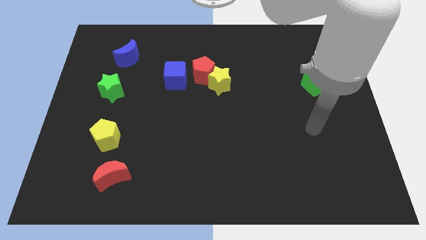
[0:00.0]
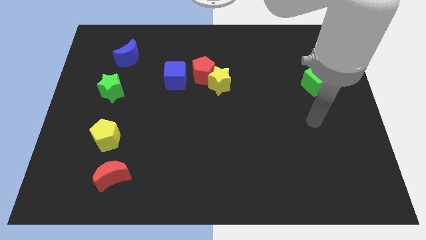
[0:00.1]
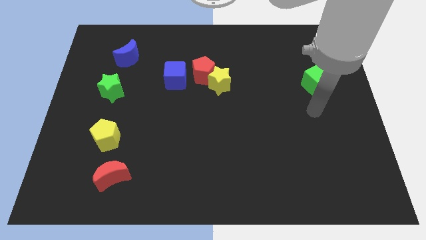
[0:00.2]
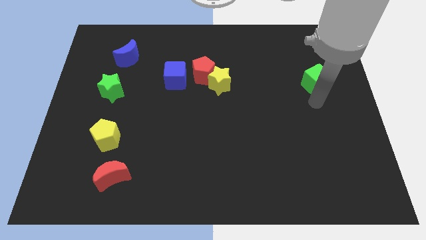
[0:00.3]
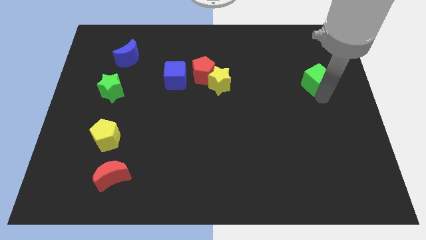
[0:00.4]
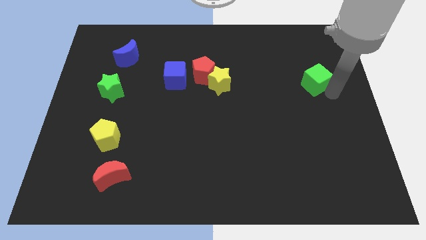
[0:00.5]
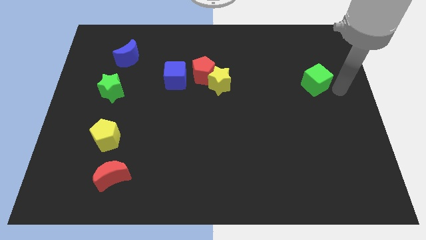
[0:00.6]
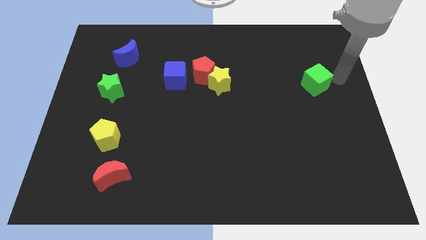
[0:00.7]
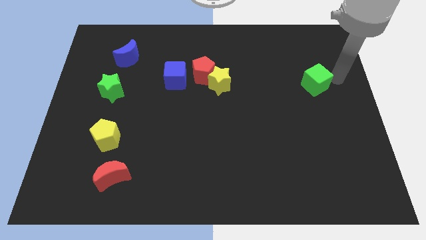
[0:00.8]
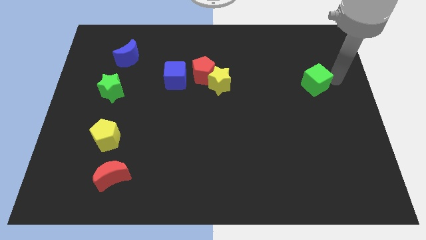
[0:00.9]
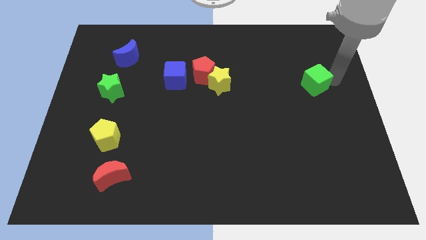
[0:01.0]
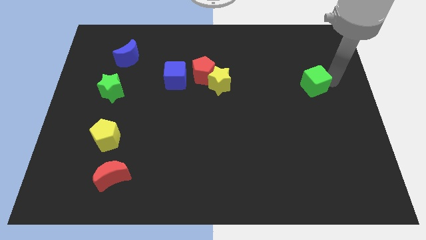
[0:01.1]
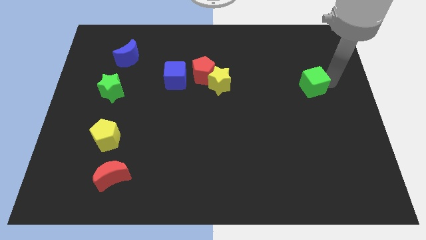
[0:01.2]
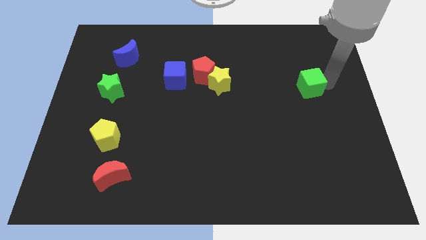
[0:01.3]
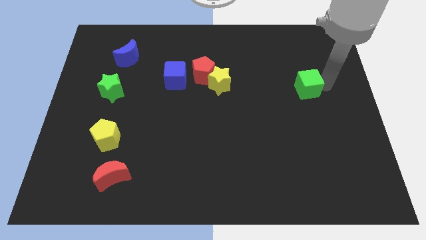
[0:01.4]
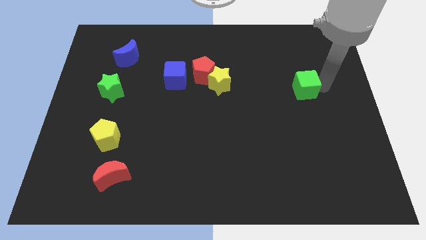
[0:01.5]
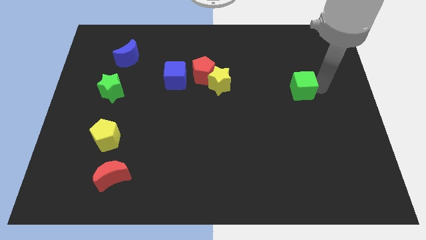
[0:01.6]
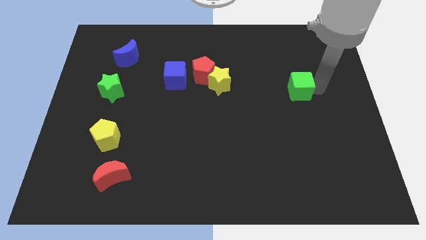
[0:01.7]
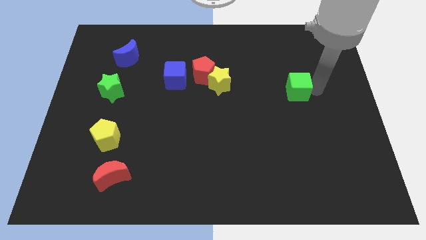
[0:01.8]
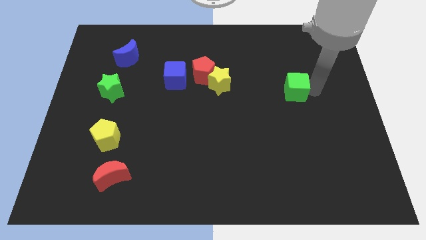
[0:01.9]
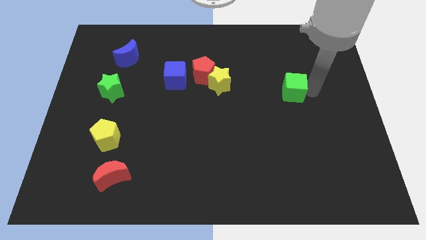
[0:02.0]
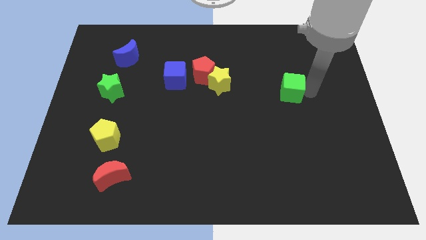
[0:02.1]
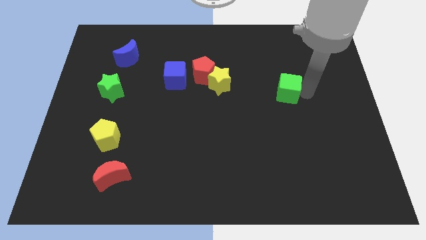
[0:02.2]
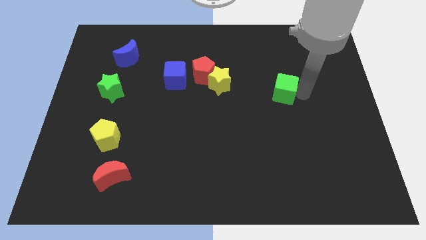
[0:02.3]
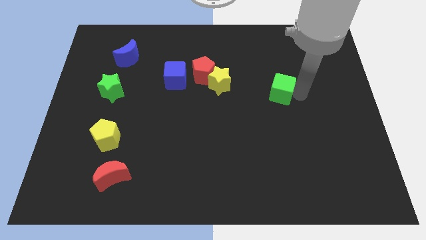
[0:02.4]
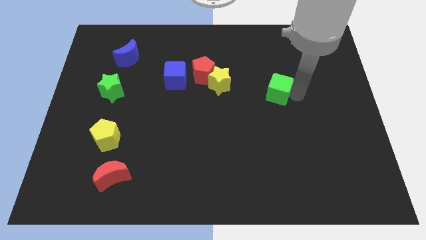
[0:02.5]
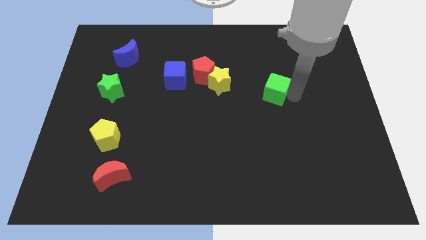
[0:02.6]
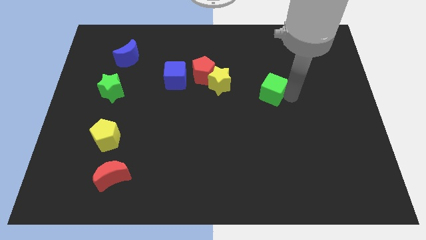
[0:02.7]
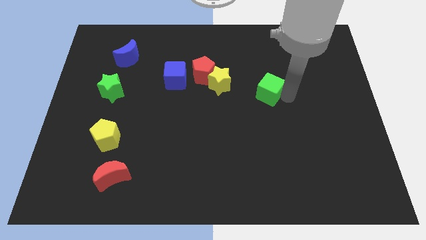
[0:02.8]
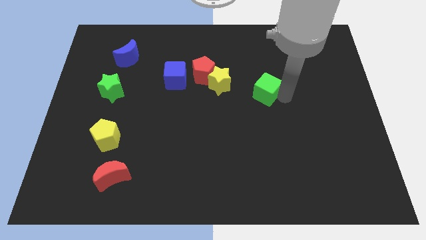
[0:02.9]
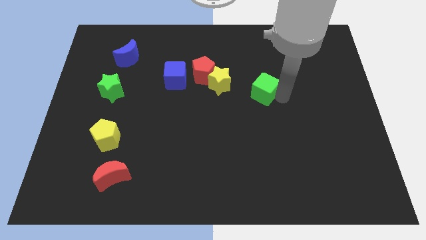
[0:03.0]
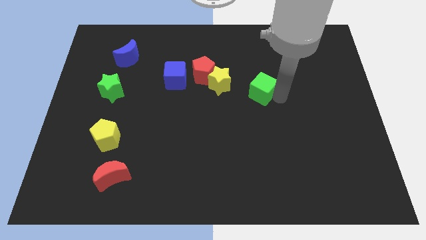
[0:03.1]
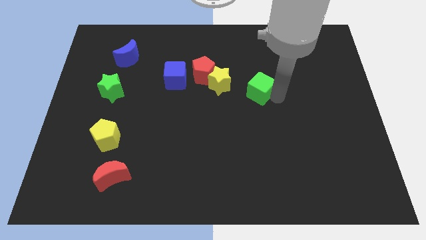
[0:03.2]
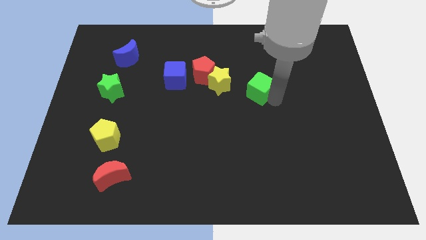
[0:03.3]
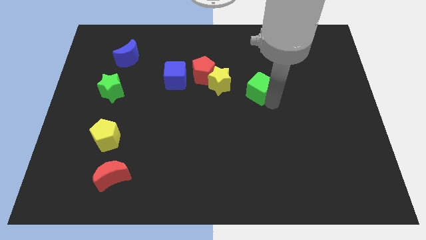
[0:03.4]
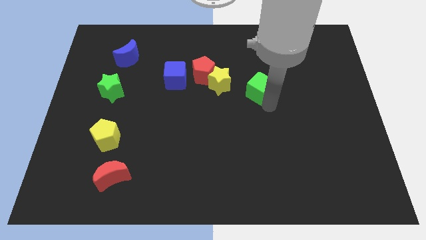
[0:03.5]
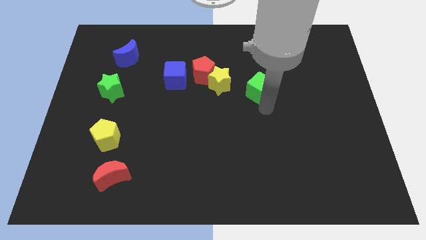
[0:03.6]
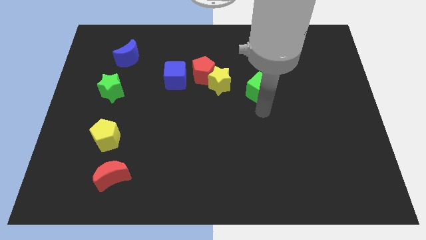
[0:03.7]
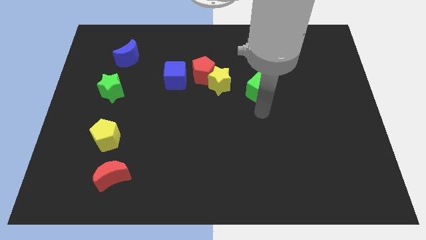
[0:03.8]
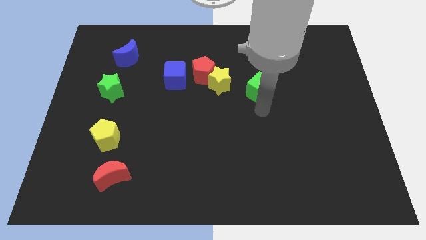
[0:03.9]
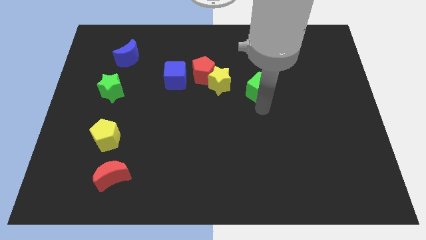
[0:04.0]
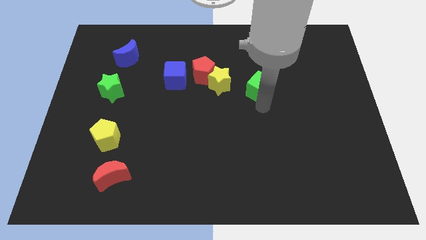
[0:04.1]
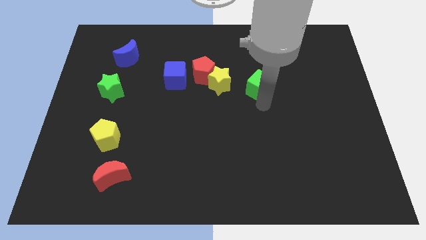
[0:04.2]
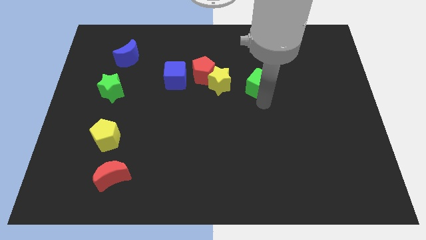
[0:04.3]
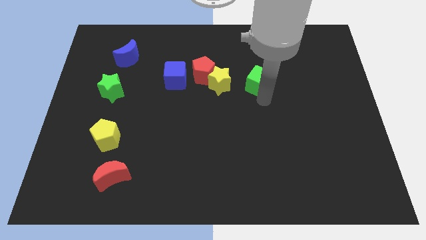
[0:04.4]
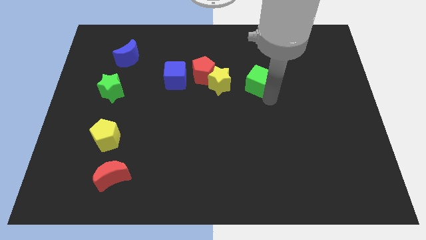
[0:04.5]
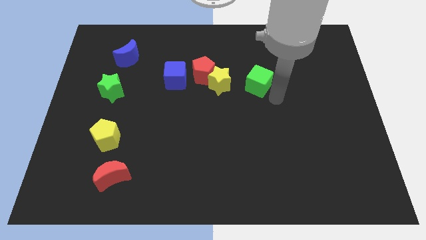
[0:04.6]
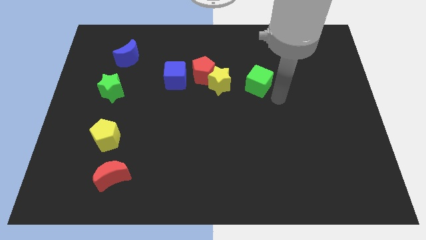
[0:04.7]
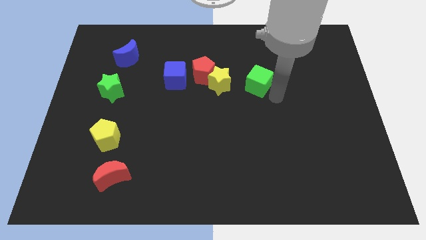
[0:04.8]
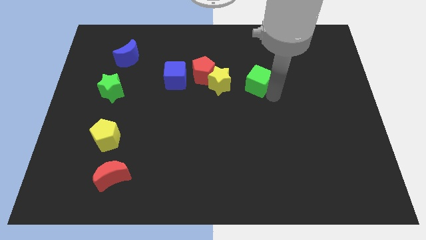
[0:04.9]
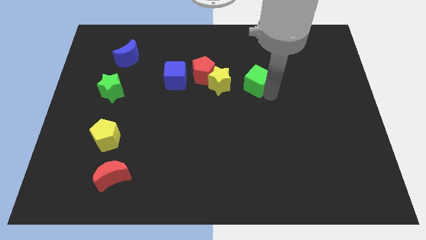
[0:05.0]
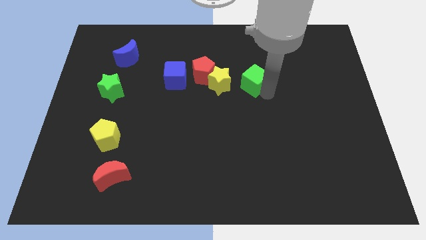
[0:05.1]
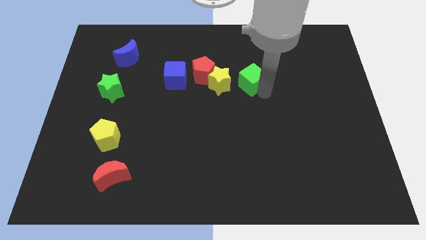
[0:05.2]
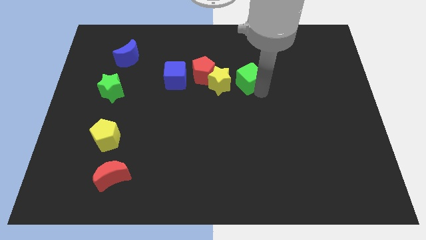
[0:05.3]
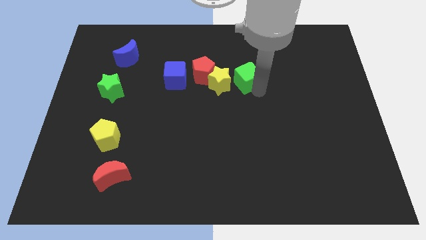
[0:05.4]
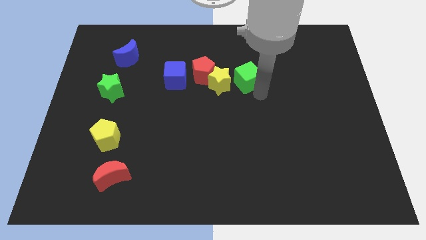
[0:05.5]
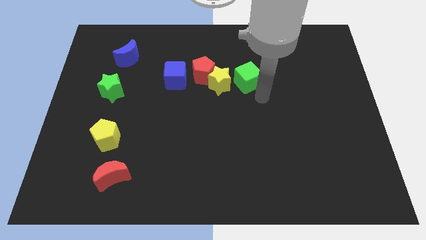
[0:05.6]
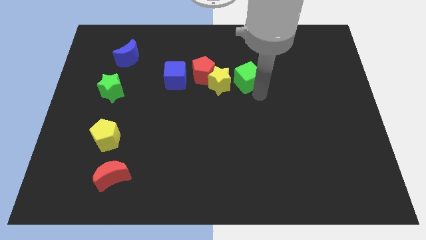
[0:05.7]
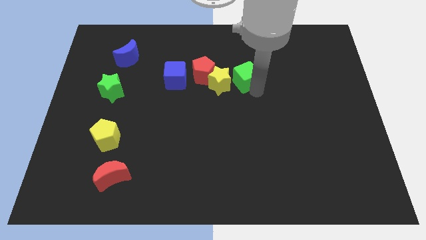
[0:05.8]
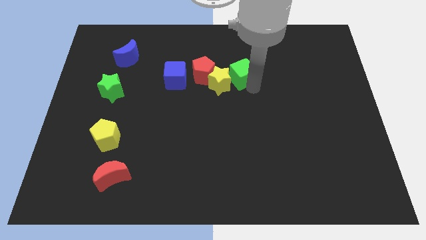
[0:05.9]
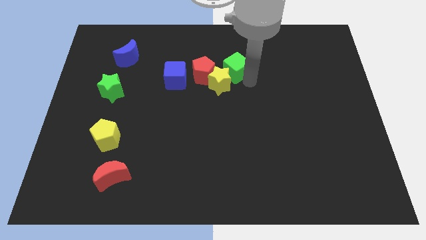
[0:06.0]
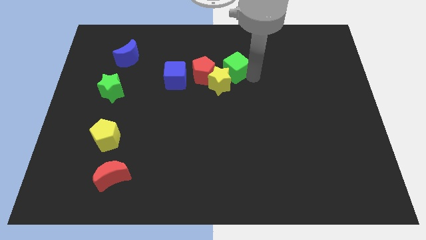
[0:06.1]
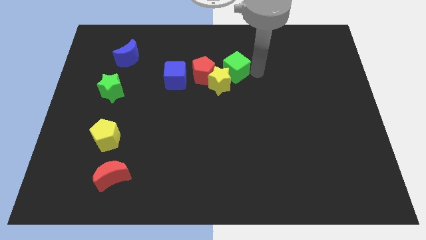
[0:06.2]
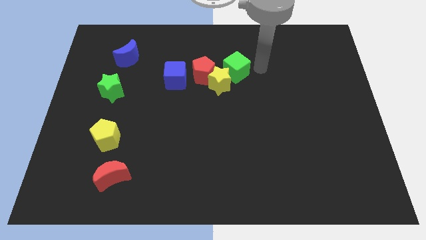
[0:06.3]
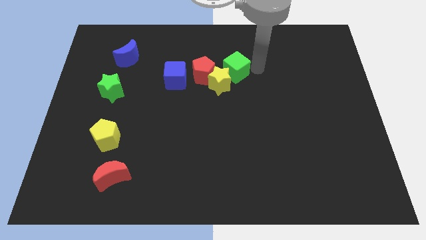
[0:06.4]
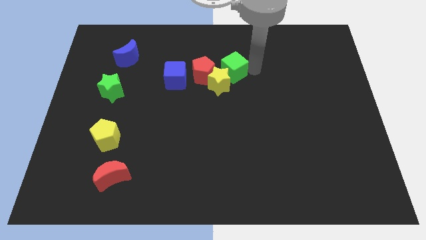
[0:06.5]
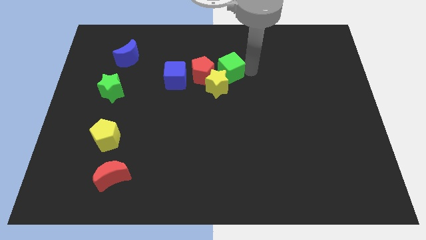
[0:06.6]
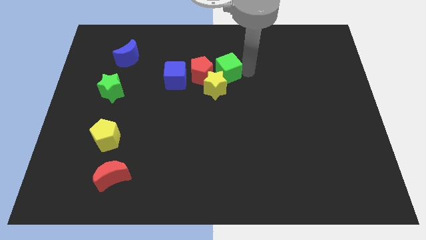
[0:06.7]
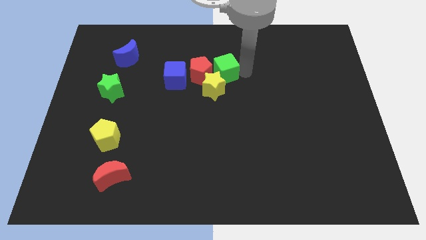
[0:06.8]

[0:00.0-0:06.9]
put the green cube close to the red pentagon

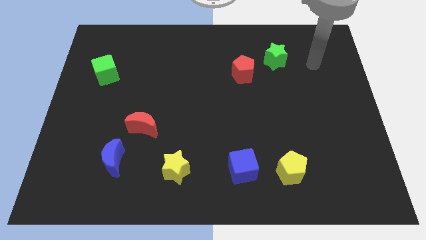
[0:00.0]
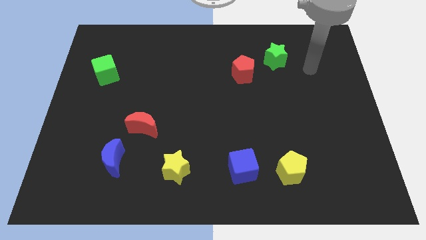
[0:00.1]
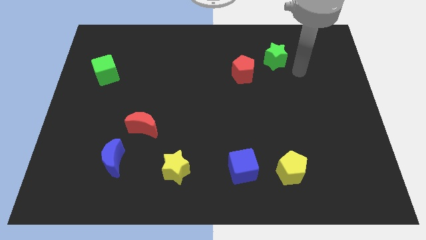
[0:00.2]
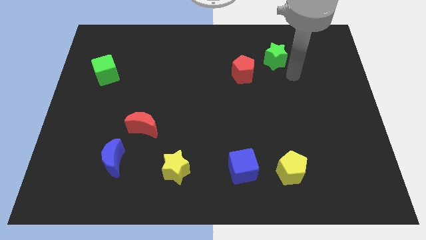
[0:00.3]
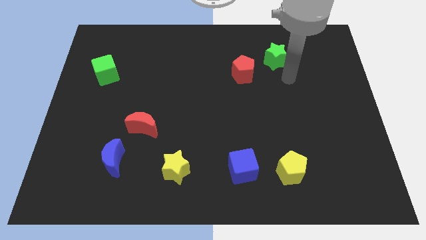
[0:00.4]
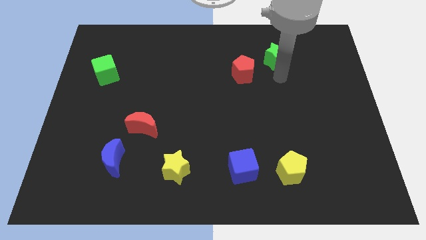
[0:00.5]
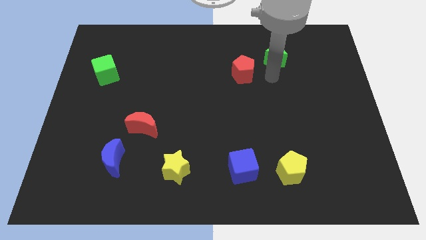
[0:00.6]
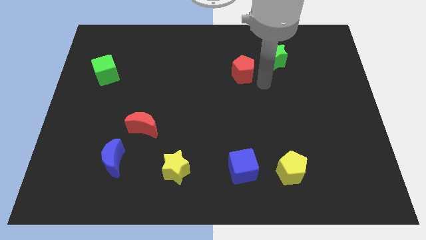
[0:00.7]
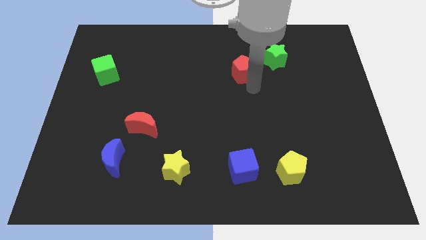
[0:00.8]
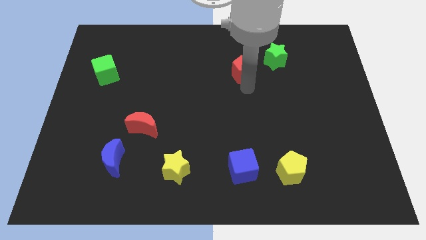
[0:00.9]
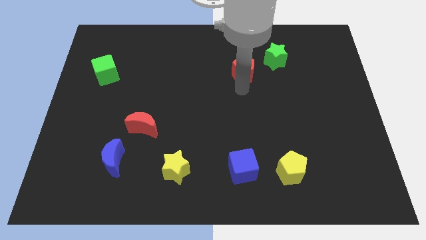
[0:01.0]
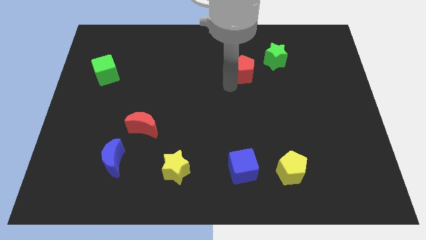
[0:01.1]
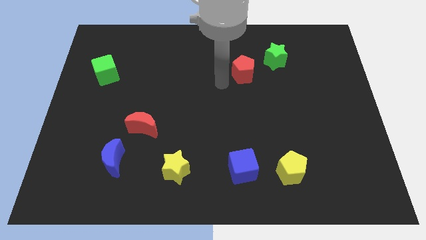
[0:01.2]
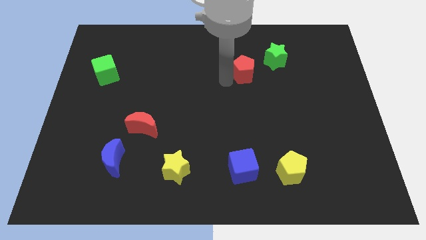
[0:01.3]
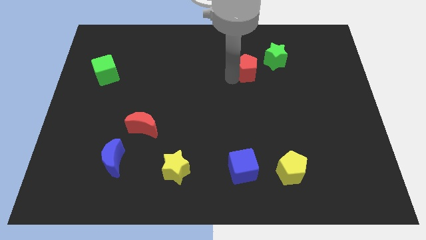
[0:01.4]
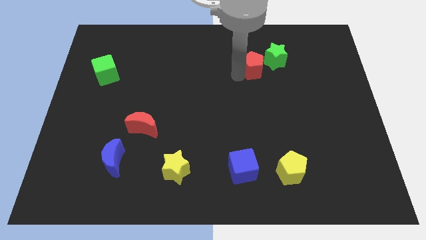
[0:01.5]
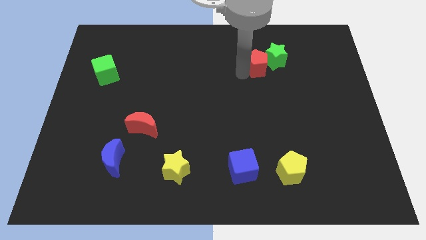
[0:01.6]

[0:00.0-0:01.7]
put the red pentagon to the green star
